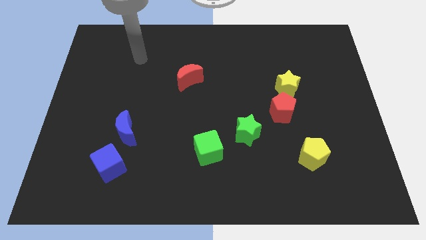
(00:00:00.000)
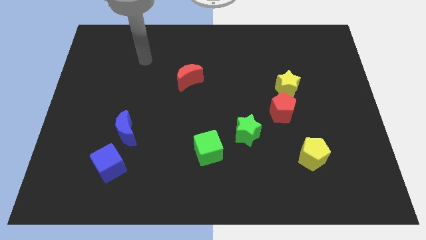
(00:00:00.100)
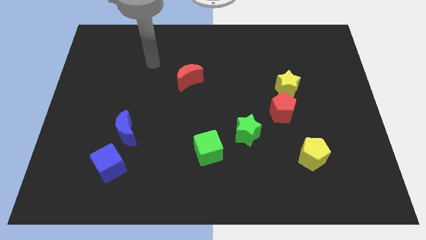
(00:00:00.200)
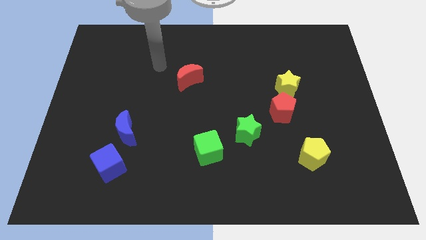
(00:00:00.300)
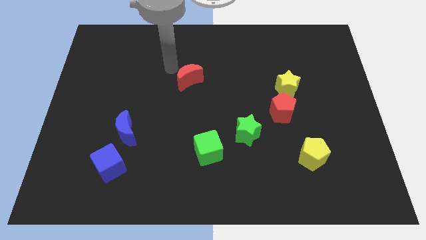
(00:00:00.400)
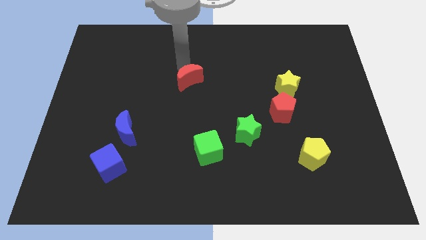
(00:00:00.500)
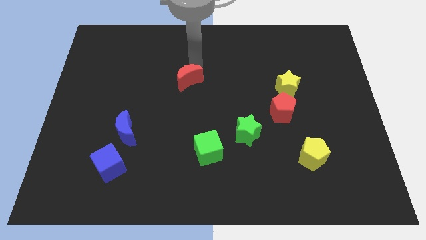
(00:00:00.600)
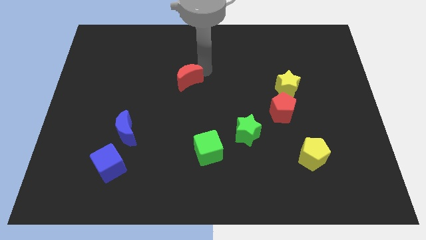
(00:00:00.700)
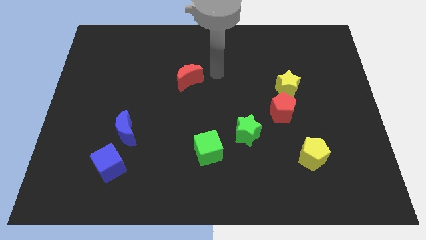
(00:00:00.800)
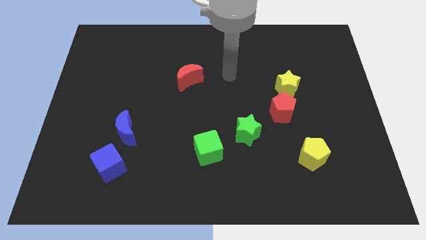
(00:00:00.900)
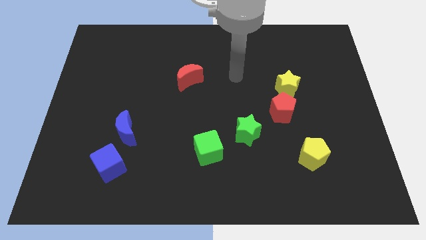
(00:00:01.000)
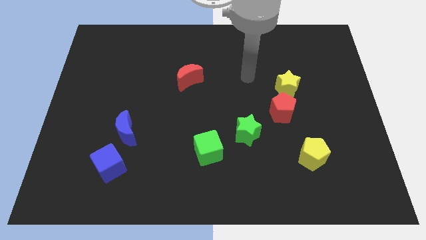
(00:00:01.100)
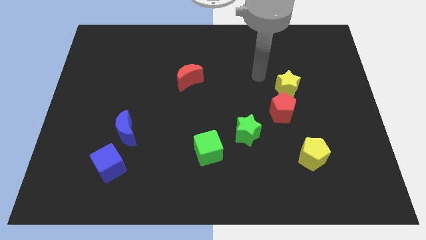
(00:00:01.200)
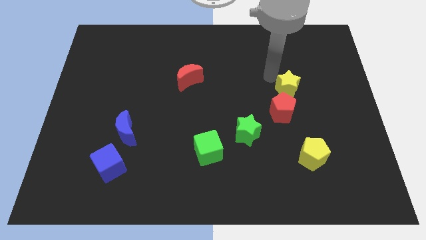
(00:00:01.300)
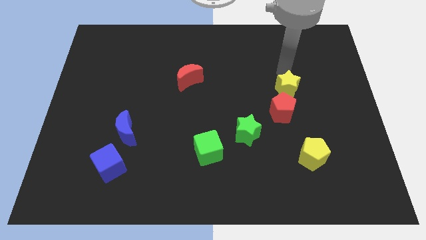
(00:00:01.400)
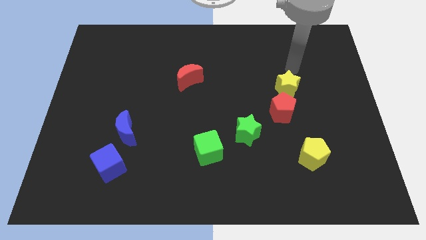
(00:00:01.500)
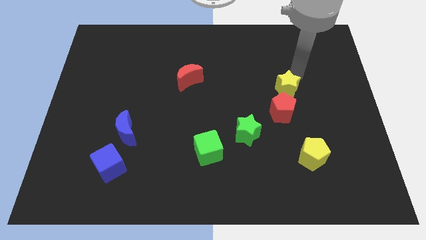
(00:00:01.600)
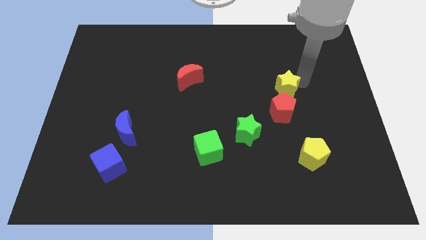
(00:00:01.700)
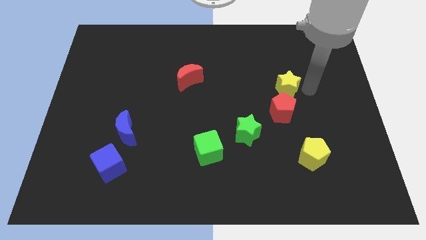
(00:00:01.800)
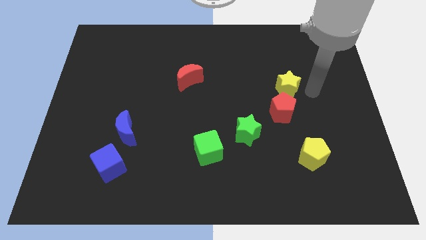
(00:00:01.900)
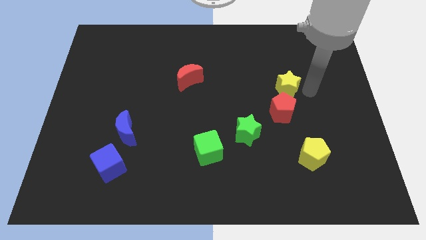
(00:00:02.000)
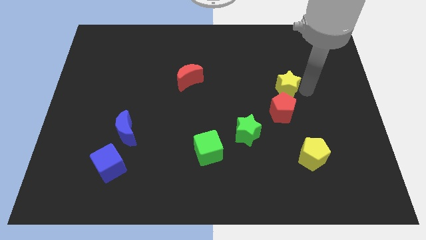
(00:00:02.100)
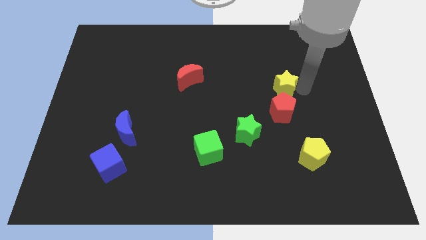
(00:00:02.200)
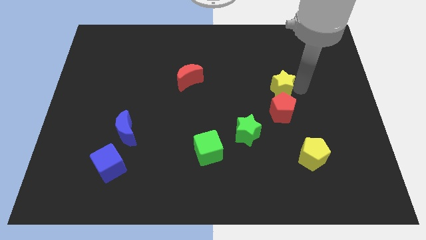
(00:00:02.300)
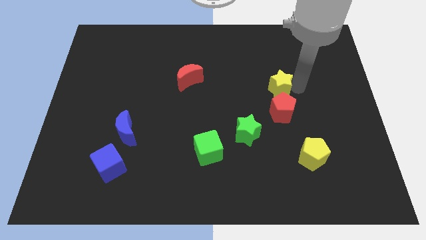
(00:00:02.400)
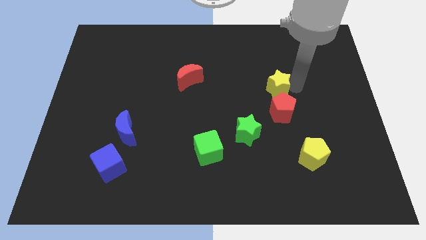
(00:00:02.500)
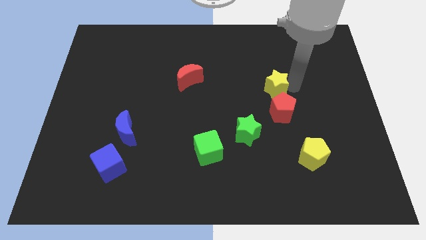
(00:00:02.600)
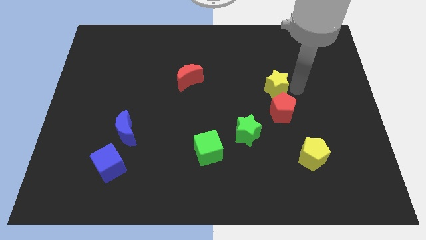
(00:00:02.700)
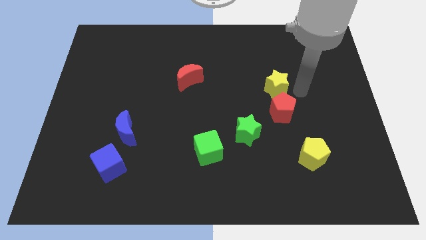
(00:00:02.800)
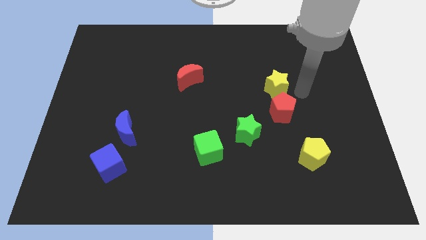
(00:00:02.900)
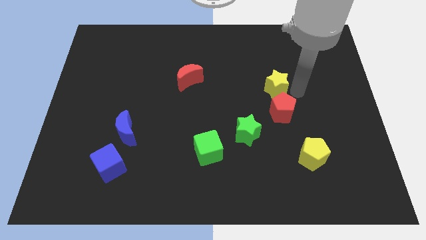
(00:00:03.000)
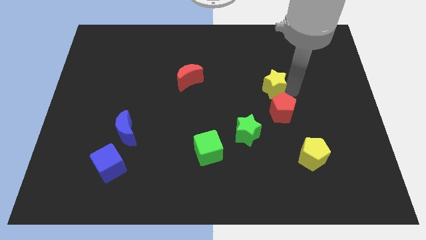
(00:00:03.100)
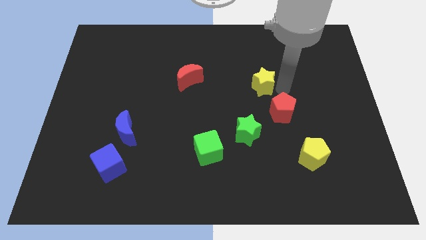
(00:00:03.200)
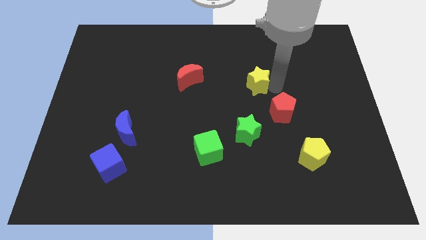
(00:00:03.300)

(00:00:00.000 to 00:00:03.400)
slightly slide the yellow star left

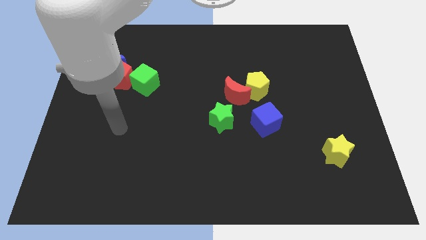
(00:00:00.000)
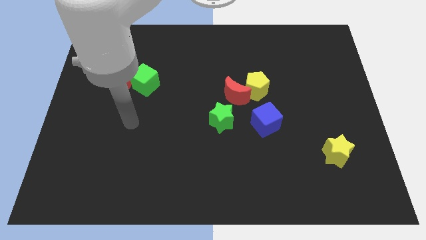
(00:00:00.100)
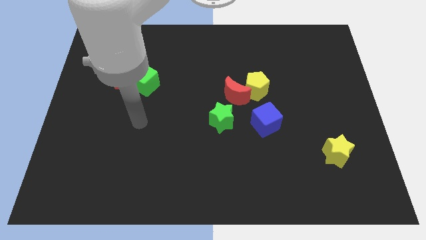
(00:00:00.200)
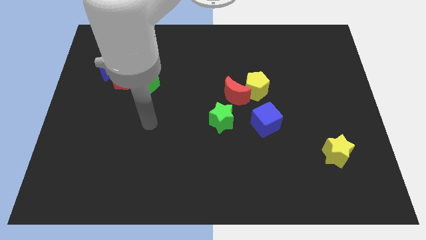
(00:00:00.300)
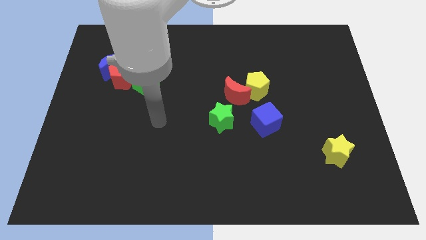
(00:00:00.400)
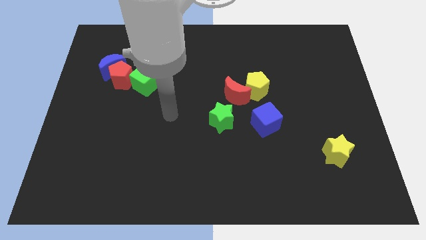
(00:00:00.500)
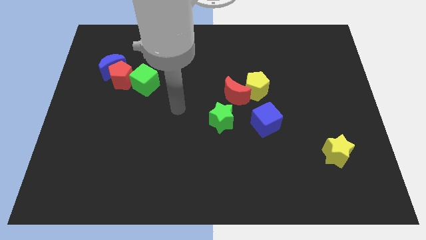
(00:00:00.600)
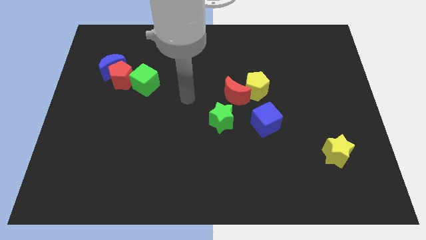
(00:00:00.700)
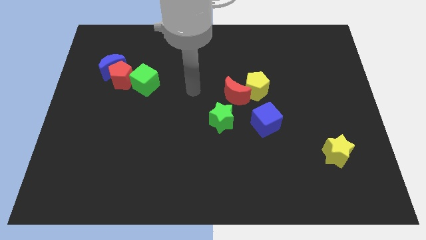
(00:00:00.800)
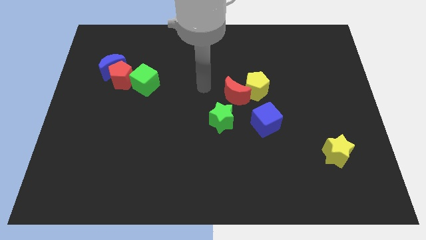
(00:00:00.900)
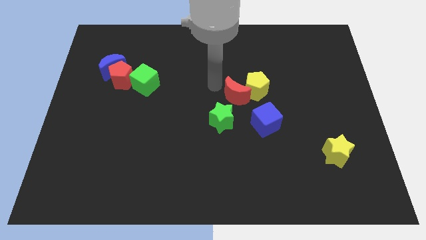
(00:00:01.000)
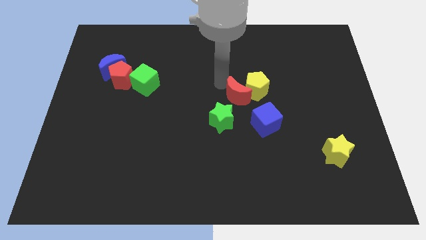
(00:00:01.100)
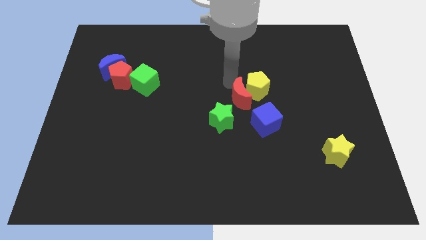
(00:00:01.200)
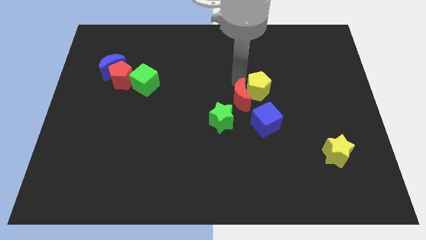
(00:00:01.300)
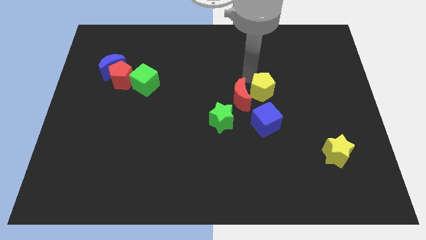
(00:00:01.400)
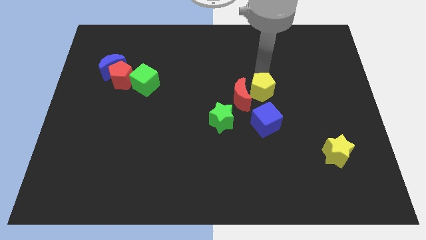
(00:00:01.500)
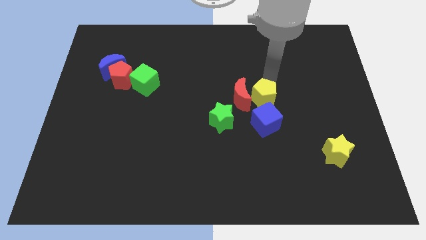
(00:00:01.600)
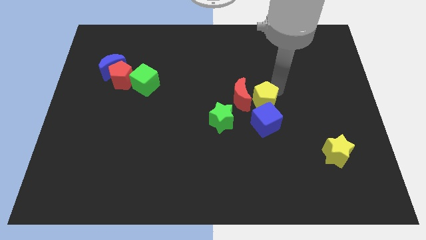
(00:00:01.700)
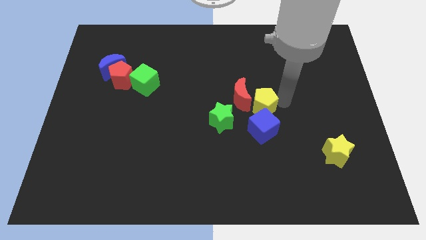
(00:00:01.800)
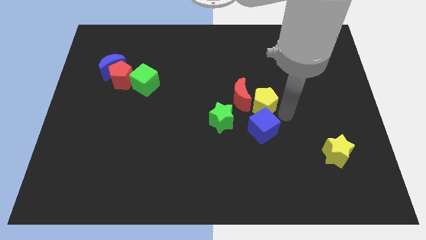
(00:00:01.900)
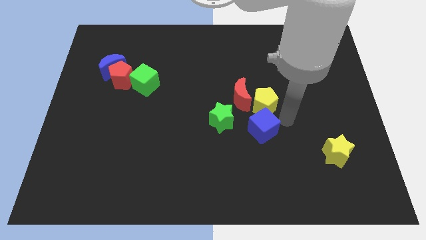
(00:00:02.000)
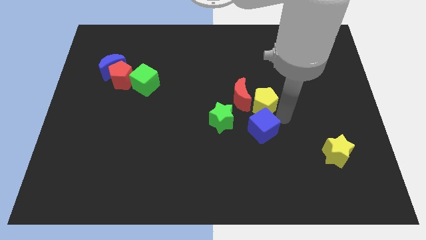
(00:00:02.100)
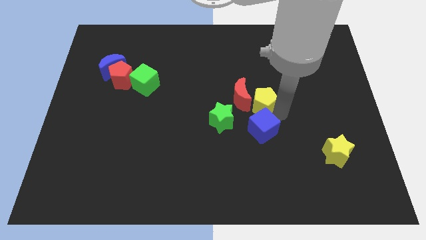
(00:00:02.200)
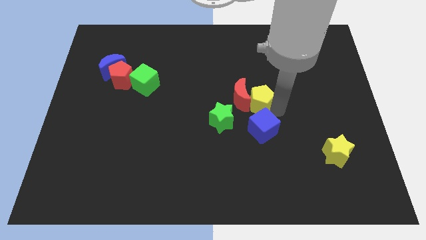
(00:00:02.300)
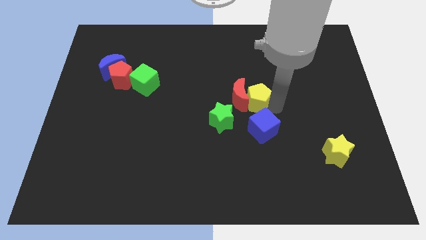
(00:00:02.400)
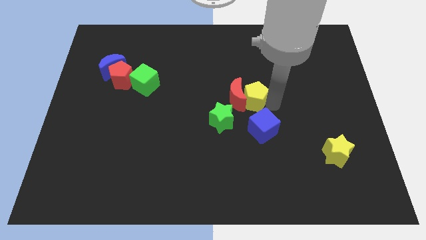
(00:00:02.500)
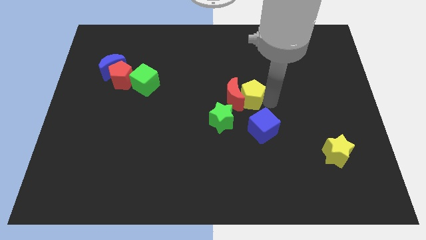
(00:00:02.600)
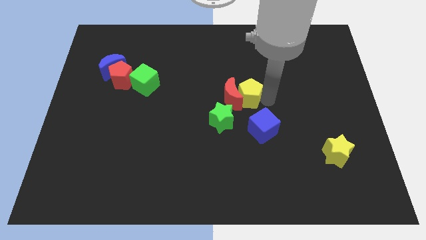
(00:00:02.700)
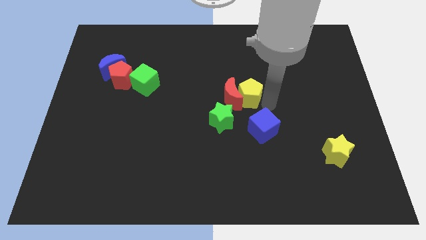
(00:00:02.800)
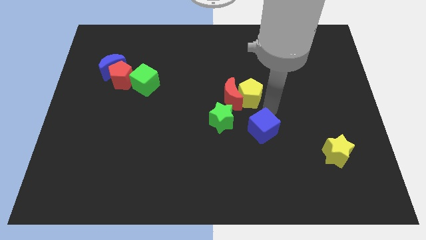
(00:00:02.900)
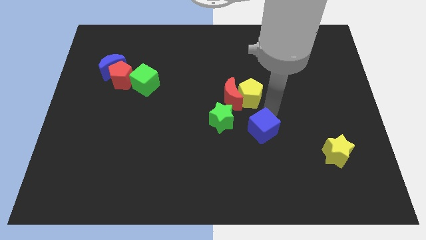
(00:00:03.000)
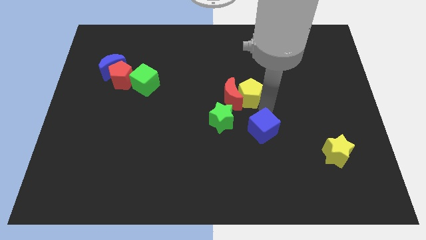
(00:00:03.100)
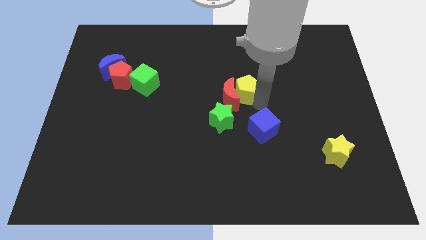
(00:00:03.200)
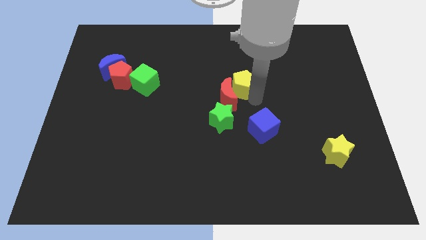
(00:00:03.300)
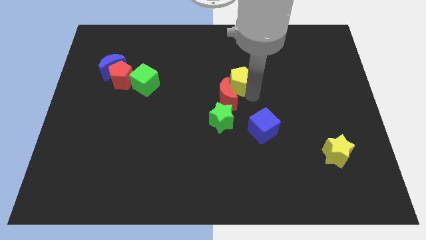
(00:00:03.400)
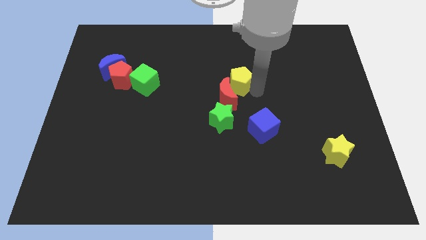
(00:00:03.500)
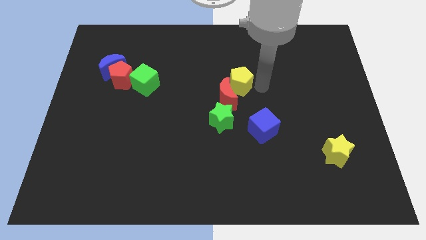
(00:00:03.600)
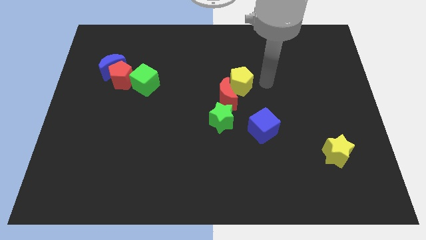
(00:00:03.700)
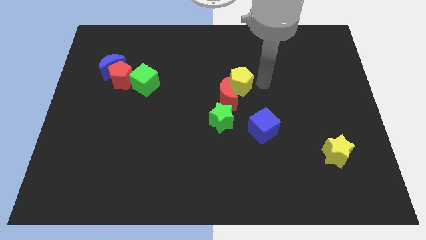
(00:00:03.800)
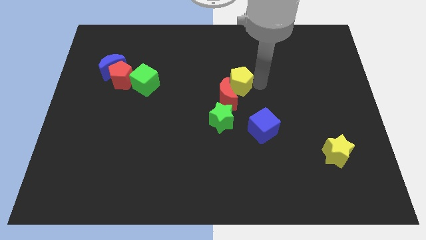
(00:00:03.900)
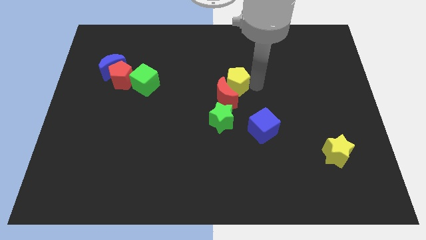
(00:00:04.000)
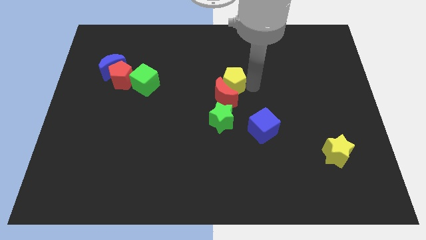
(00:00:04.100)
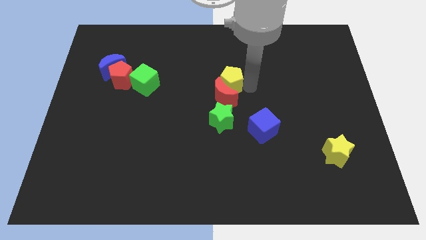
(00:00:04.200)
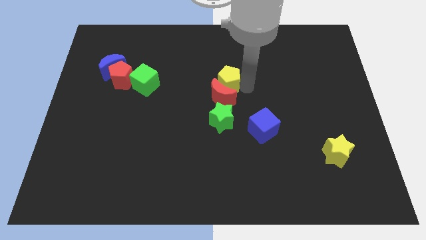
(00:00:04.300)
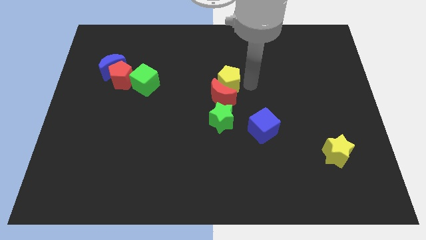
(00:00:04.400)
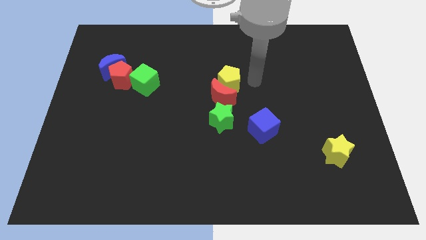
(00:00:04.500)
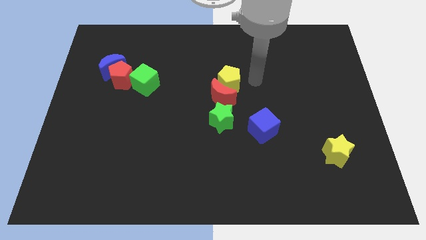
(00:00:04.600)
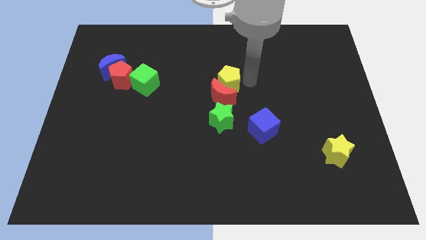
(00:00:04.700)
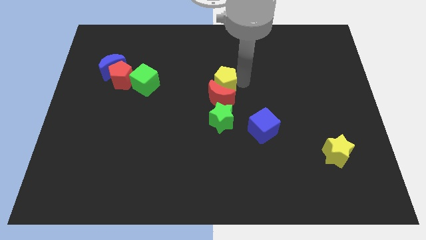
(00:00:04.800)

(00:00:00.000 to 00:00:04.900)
slightly push the yellow pentagon to the left
